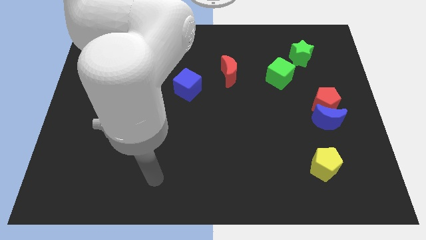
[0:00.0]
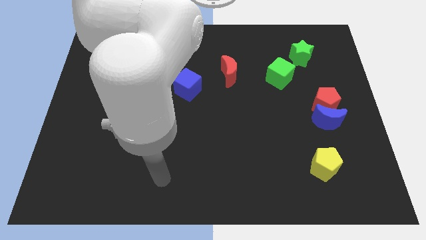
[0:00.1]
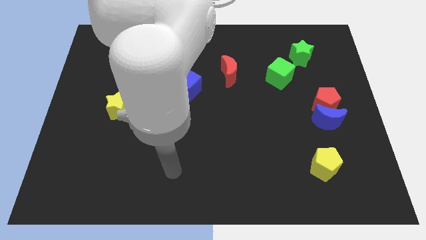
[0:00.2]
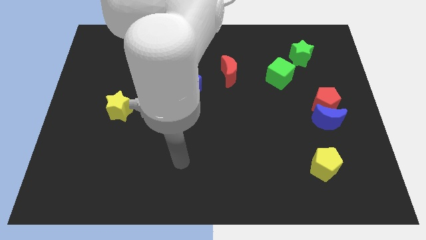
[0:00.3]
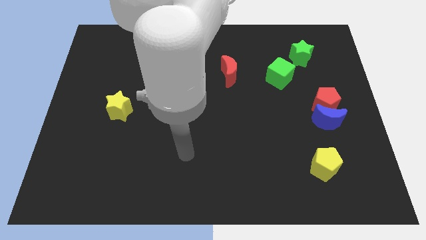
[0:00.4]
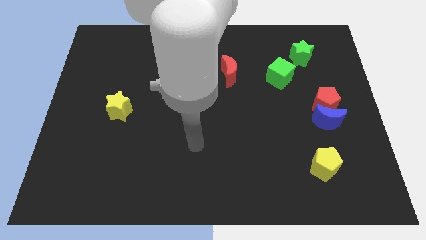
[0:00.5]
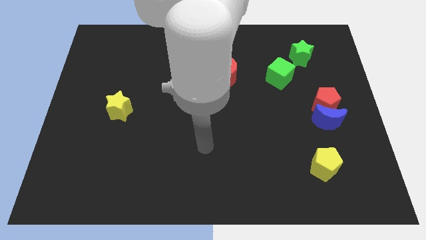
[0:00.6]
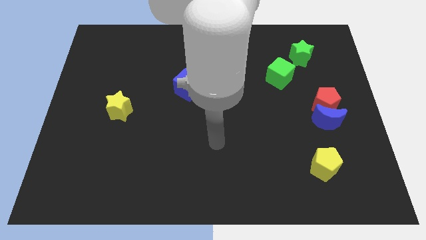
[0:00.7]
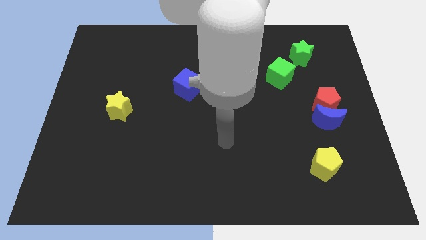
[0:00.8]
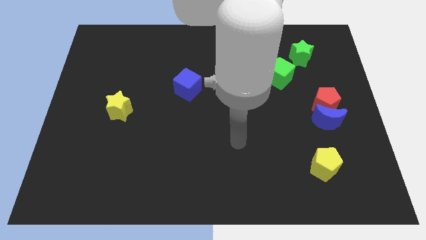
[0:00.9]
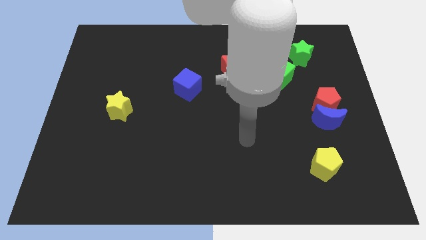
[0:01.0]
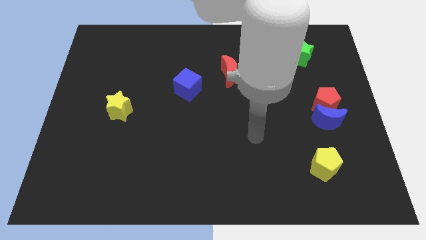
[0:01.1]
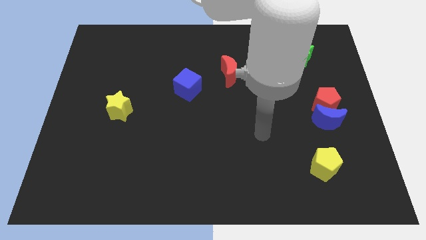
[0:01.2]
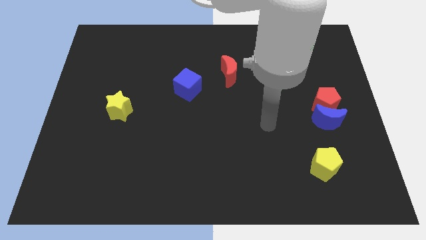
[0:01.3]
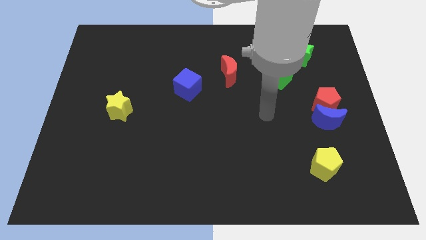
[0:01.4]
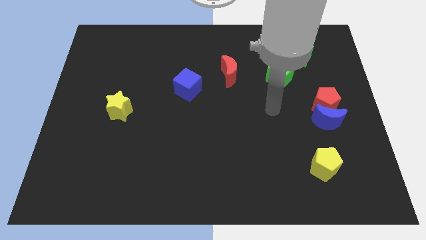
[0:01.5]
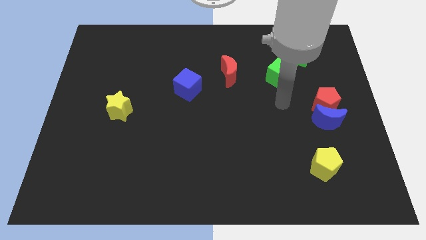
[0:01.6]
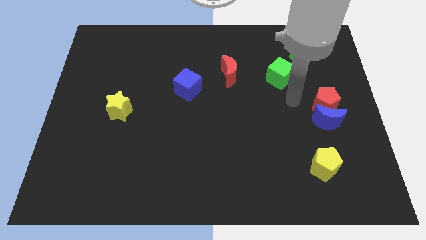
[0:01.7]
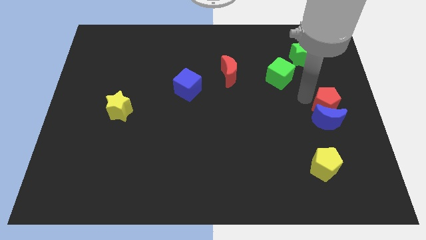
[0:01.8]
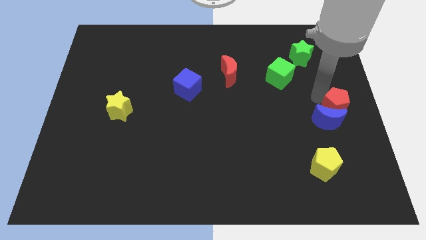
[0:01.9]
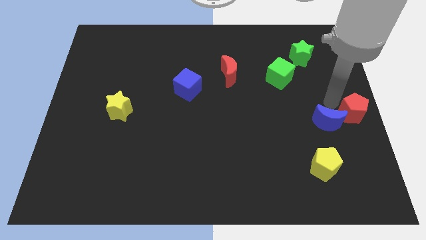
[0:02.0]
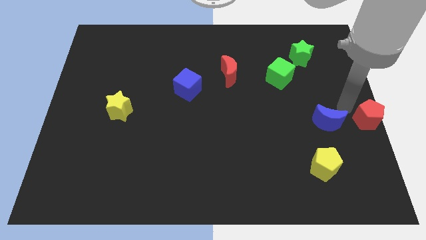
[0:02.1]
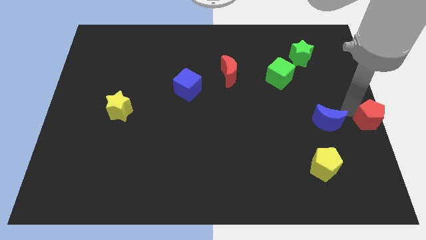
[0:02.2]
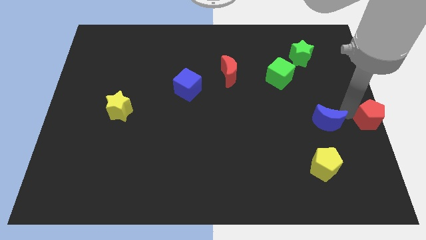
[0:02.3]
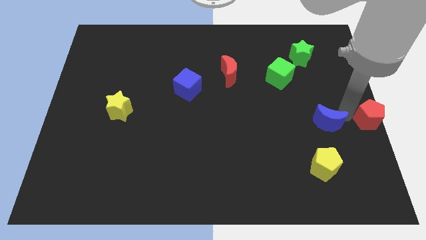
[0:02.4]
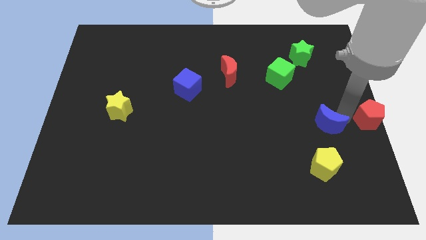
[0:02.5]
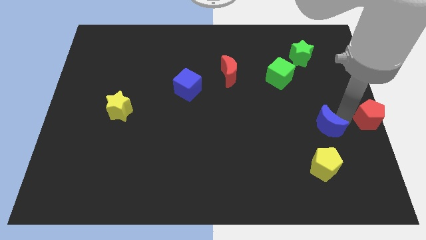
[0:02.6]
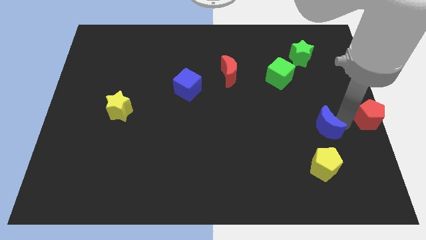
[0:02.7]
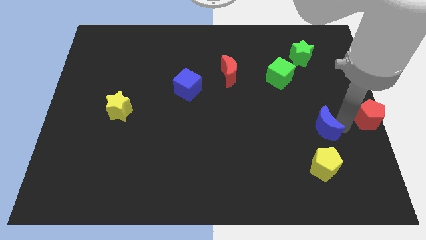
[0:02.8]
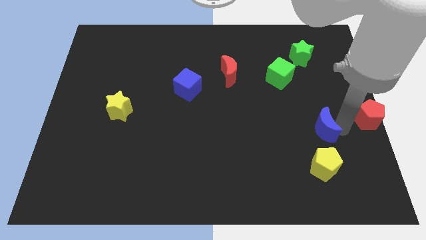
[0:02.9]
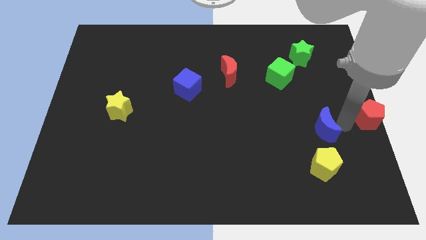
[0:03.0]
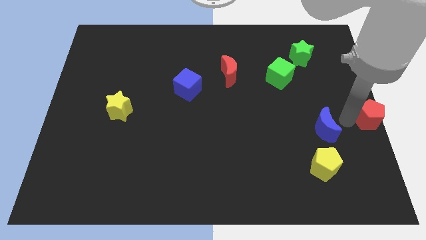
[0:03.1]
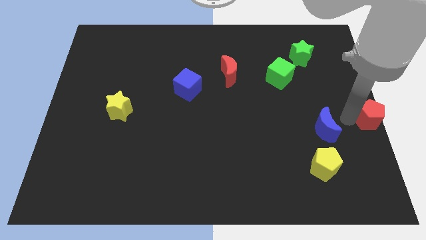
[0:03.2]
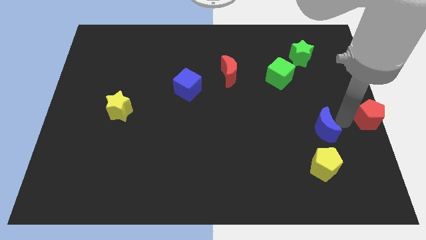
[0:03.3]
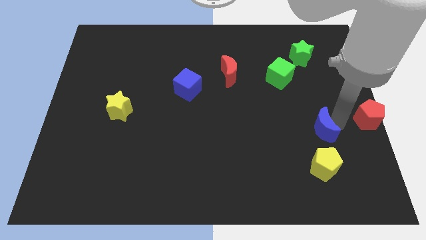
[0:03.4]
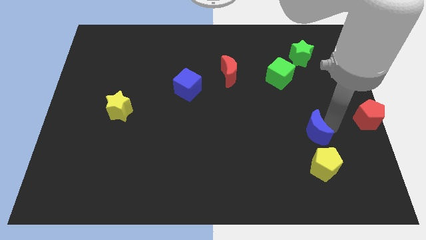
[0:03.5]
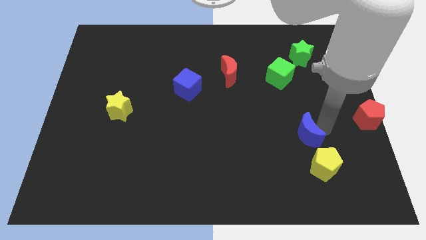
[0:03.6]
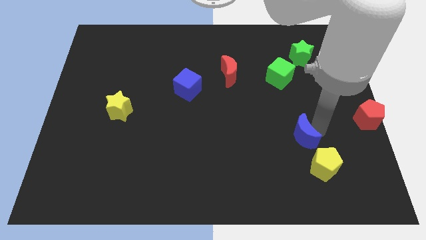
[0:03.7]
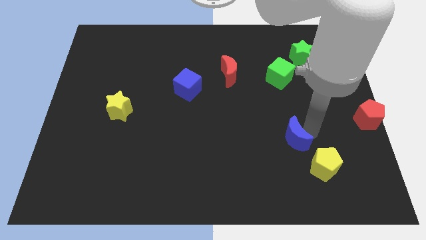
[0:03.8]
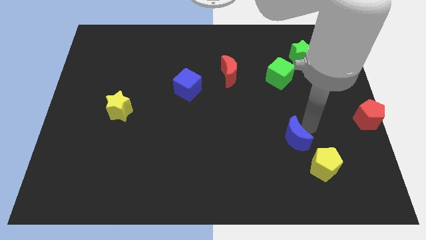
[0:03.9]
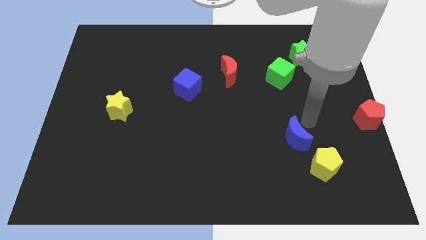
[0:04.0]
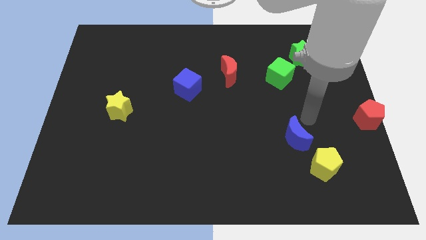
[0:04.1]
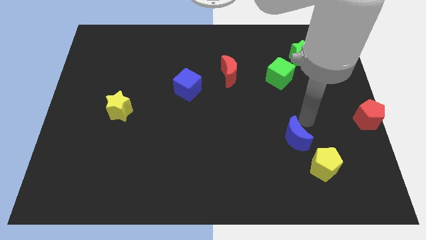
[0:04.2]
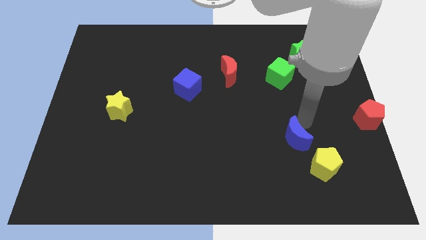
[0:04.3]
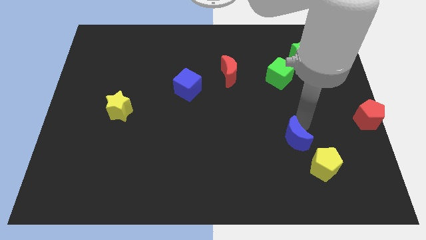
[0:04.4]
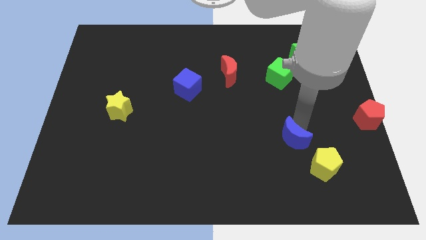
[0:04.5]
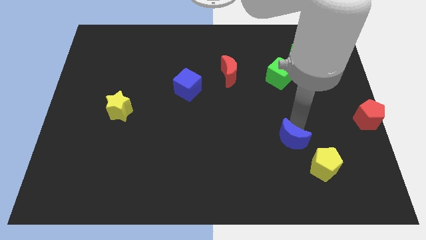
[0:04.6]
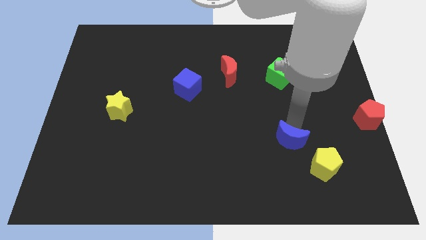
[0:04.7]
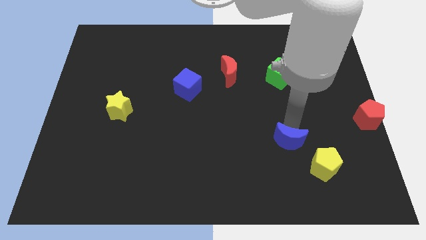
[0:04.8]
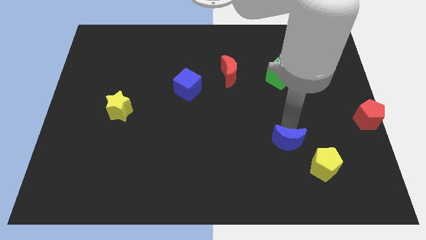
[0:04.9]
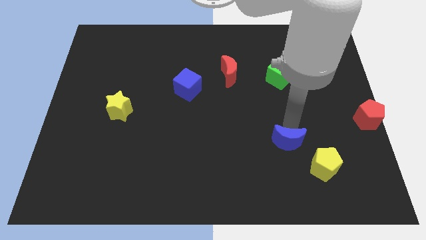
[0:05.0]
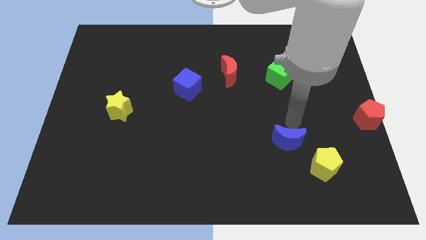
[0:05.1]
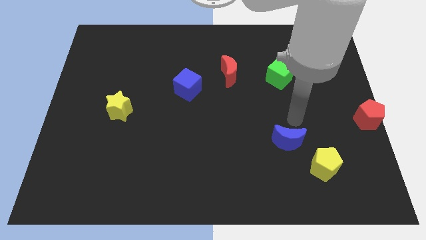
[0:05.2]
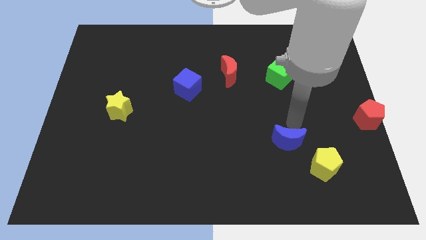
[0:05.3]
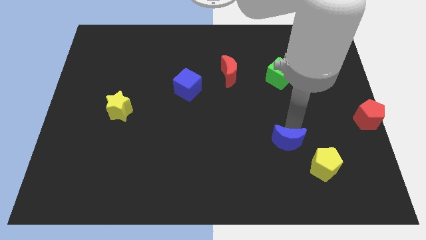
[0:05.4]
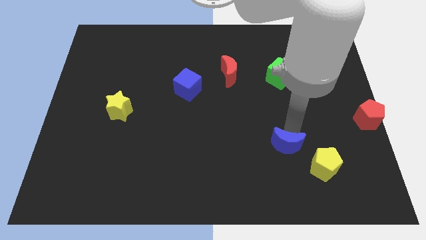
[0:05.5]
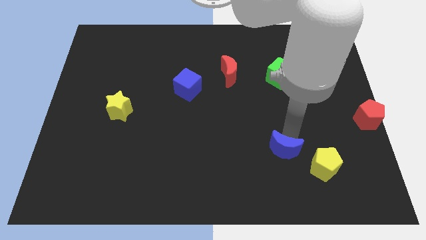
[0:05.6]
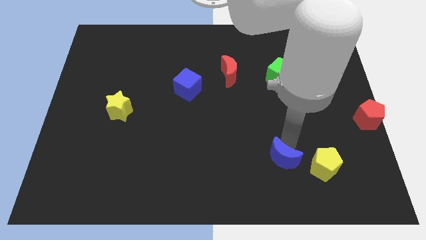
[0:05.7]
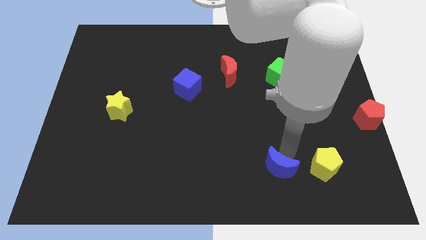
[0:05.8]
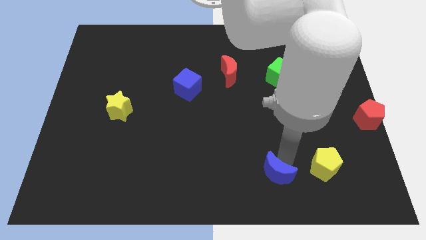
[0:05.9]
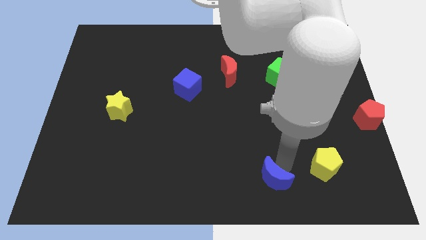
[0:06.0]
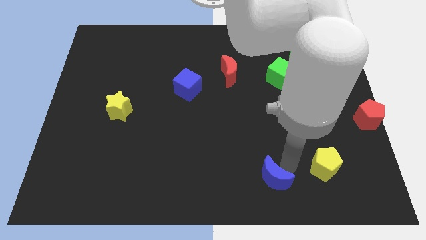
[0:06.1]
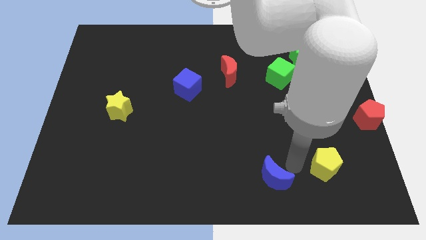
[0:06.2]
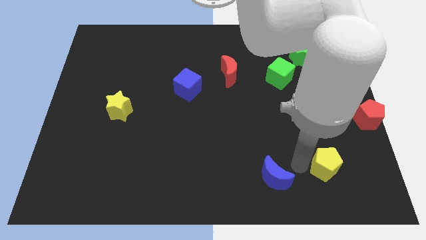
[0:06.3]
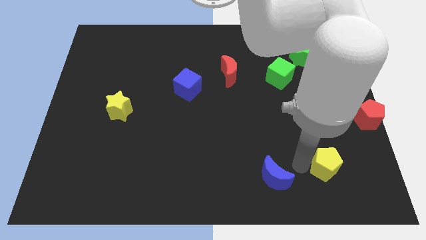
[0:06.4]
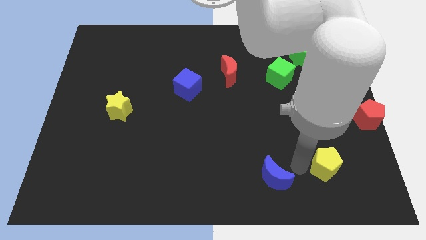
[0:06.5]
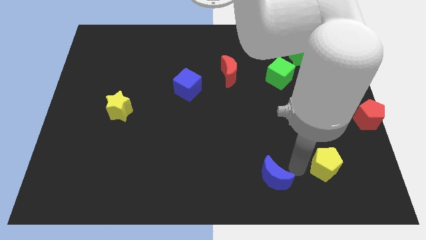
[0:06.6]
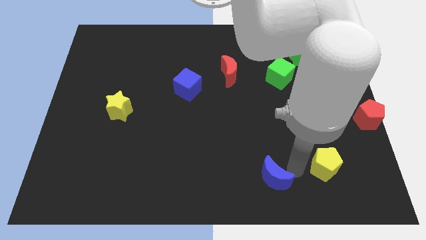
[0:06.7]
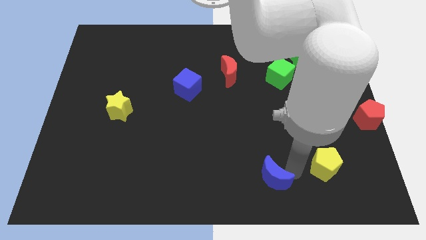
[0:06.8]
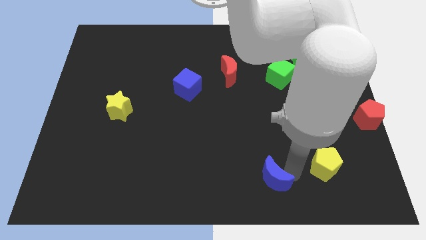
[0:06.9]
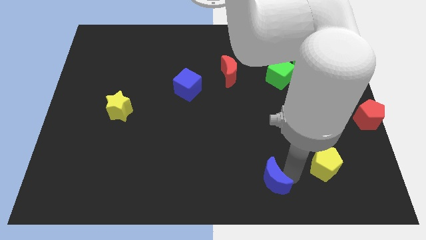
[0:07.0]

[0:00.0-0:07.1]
push the blue moon to the bottom side
